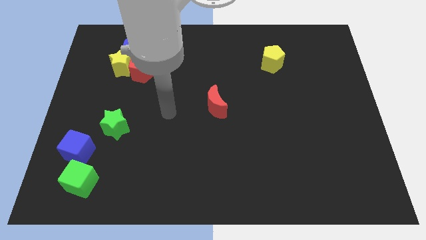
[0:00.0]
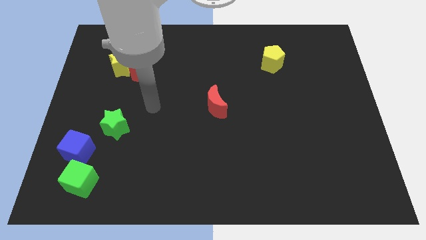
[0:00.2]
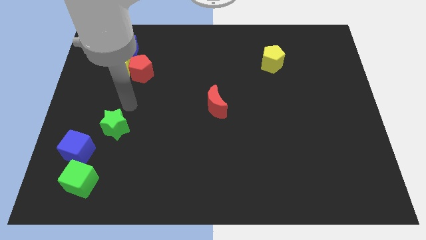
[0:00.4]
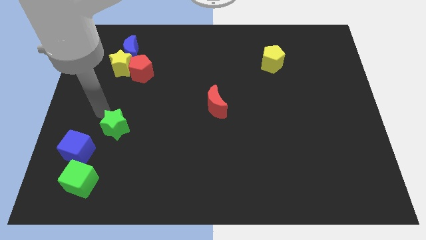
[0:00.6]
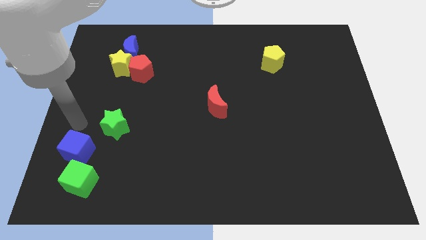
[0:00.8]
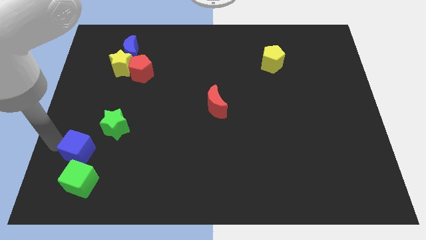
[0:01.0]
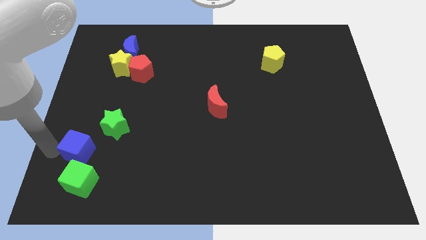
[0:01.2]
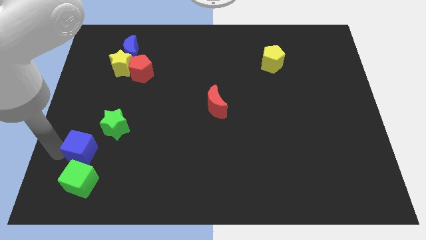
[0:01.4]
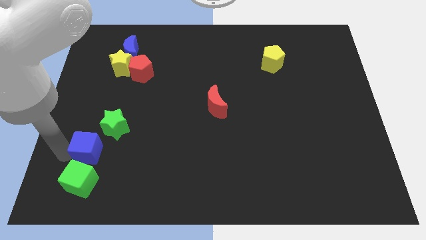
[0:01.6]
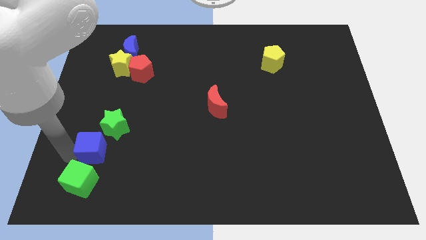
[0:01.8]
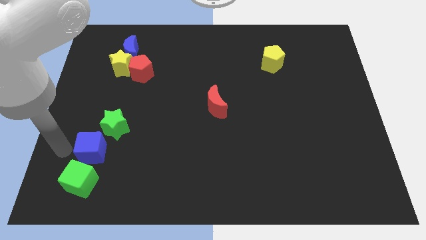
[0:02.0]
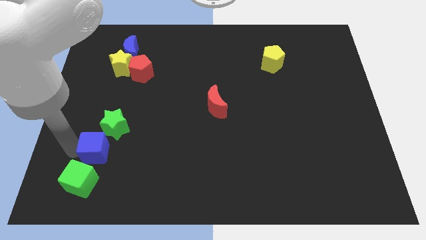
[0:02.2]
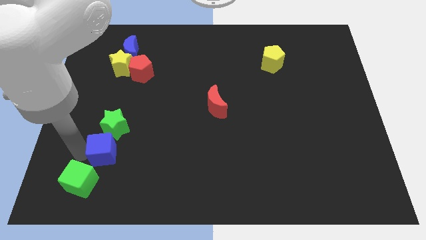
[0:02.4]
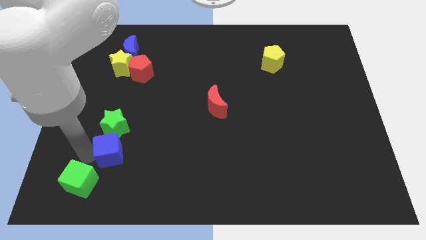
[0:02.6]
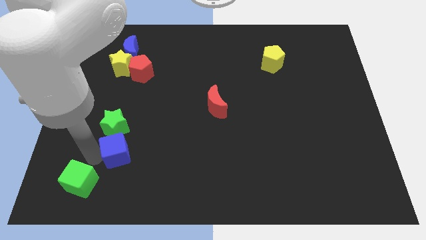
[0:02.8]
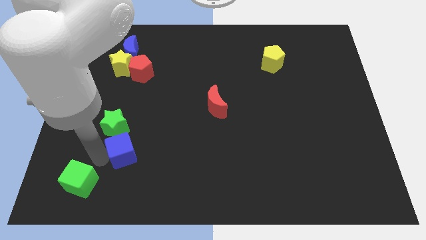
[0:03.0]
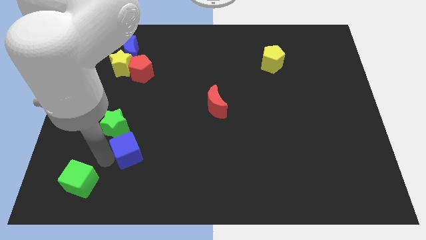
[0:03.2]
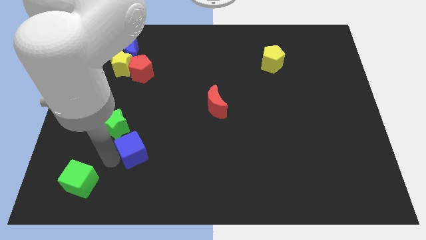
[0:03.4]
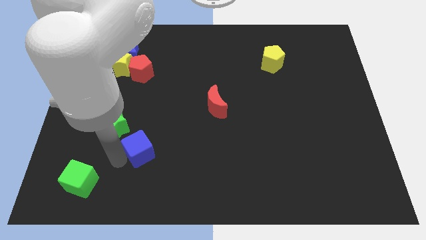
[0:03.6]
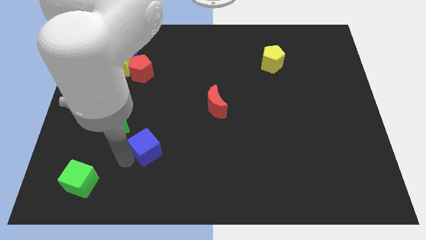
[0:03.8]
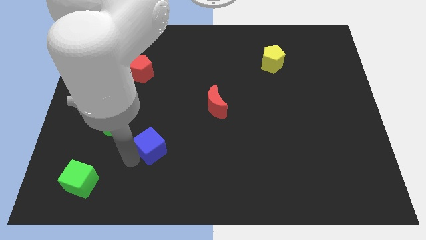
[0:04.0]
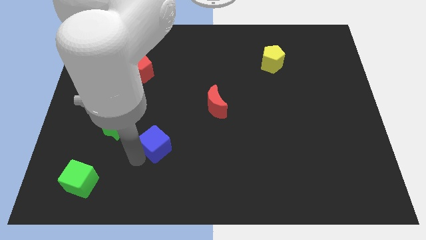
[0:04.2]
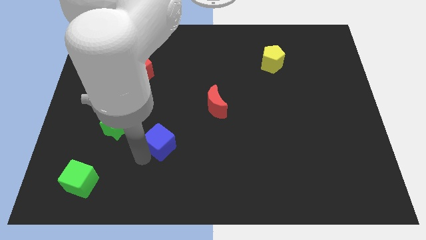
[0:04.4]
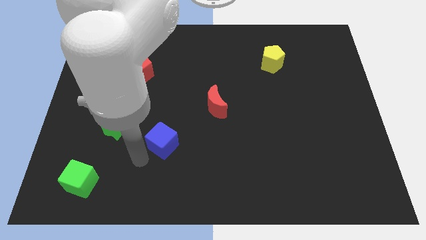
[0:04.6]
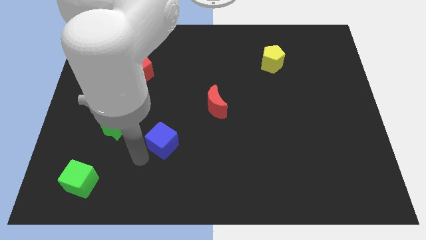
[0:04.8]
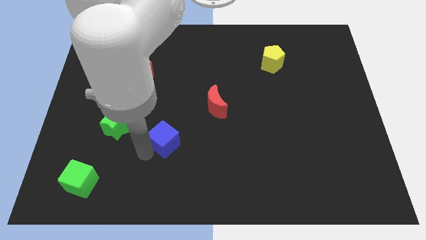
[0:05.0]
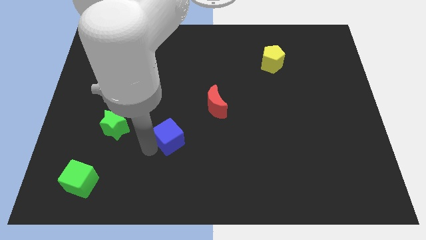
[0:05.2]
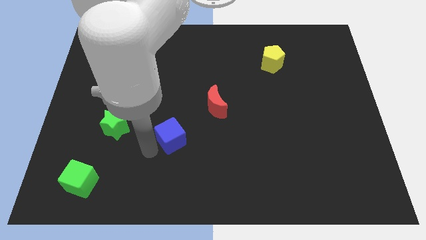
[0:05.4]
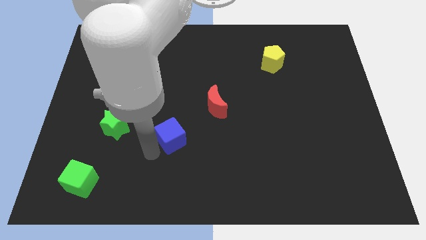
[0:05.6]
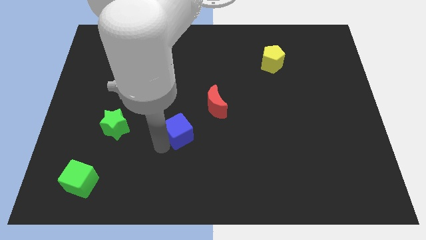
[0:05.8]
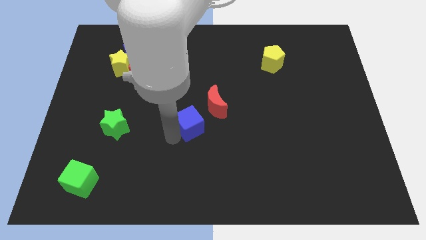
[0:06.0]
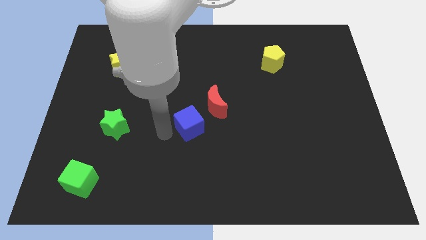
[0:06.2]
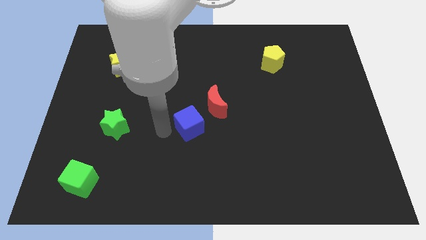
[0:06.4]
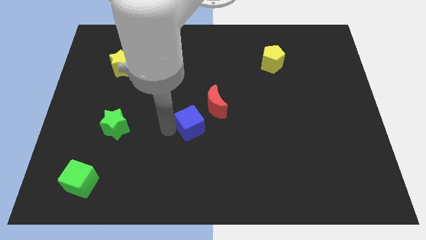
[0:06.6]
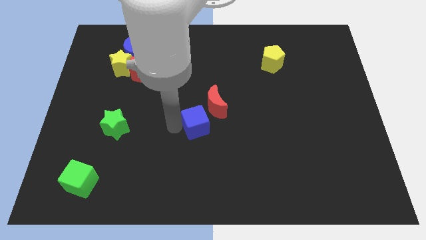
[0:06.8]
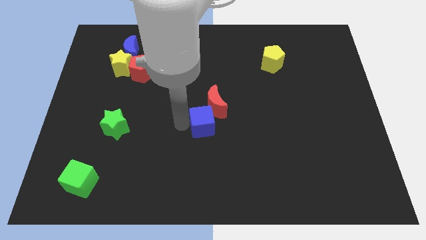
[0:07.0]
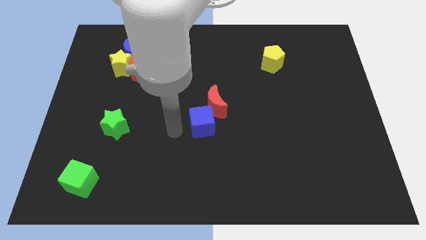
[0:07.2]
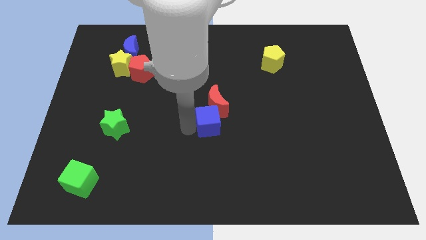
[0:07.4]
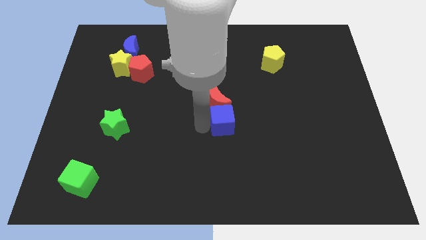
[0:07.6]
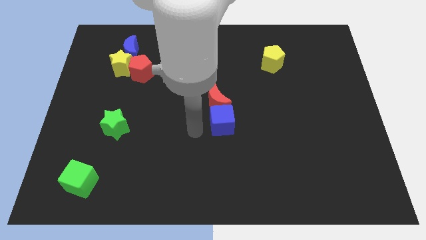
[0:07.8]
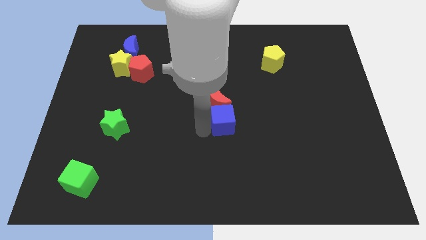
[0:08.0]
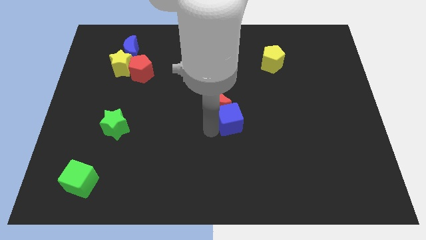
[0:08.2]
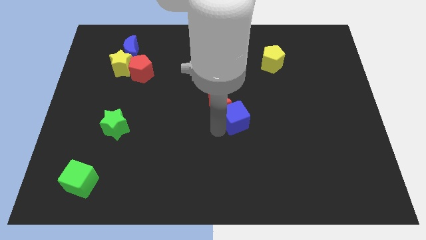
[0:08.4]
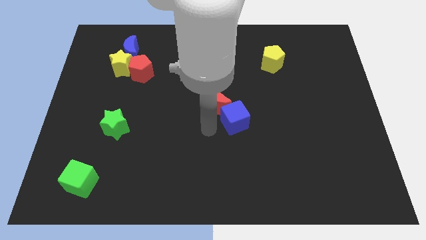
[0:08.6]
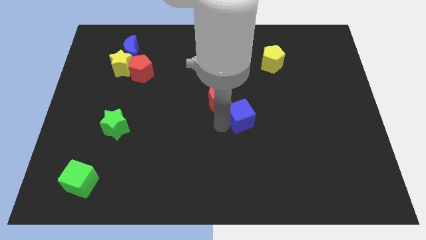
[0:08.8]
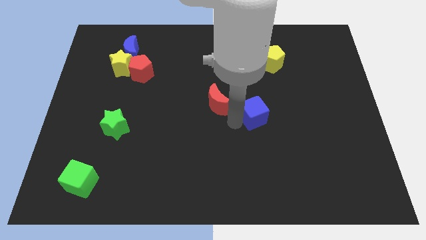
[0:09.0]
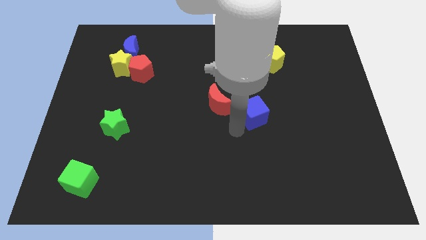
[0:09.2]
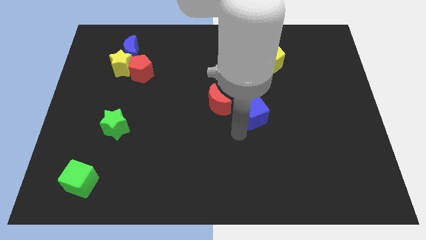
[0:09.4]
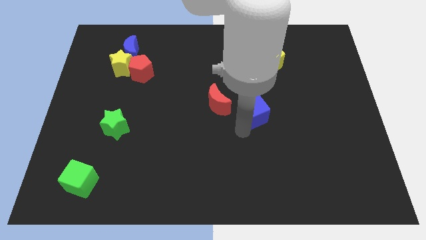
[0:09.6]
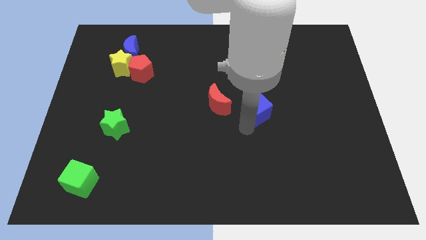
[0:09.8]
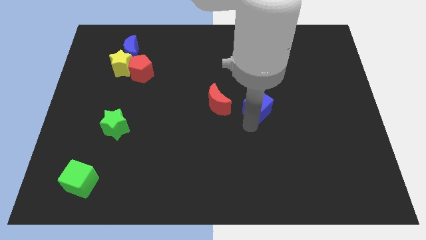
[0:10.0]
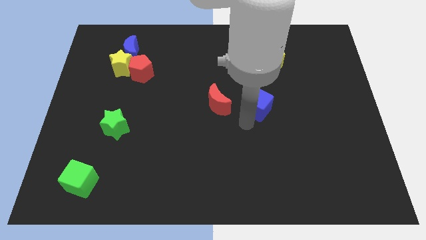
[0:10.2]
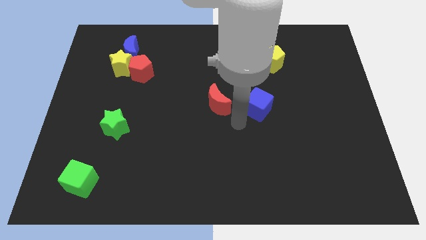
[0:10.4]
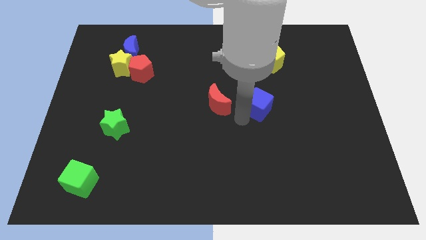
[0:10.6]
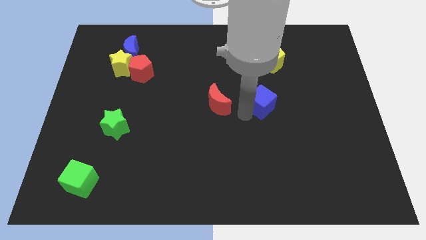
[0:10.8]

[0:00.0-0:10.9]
push the blue cube to the bottom side of the yellow pentagon

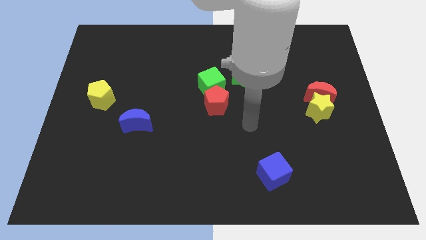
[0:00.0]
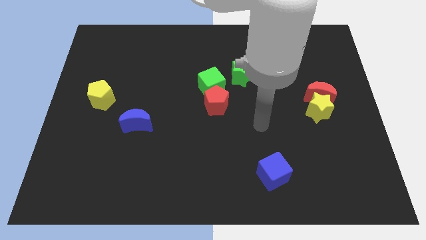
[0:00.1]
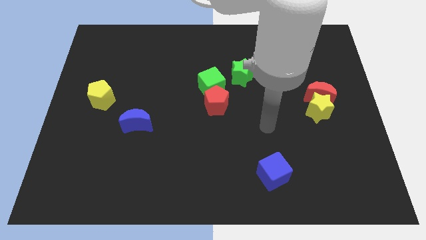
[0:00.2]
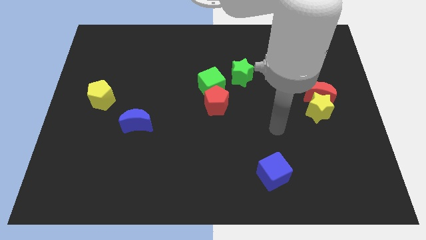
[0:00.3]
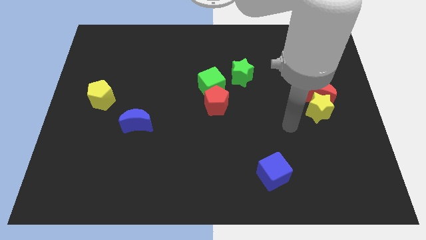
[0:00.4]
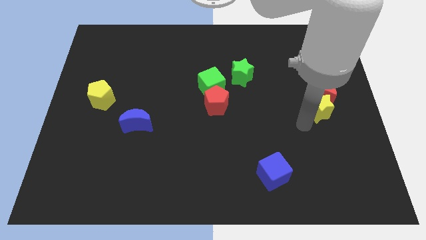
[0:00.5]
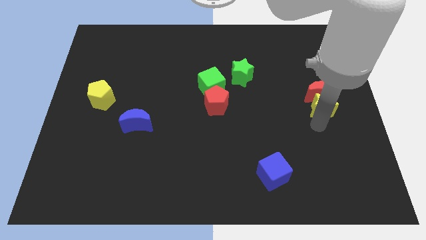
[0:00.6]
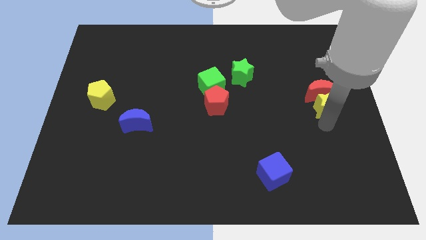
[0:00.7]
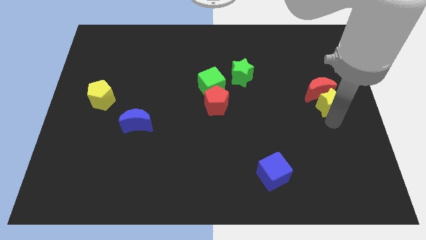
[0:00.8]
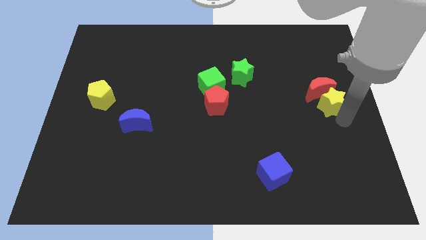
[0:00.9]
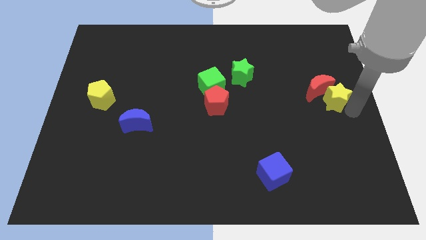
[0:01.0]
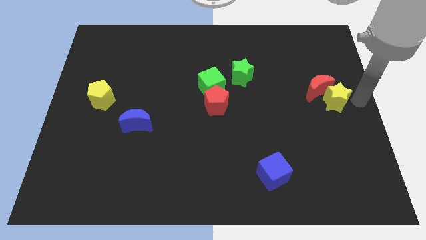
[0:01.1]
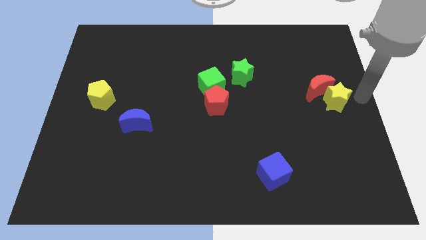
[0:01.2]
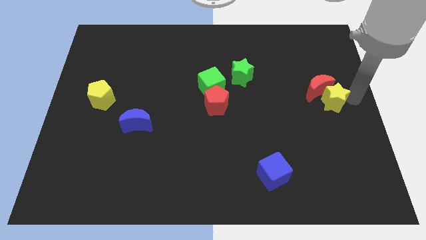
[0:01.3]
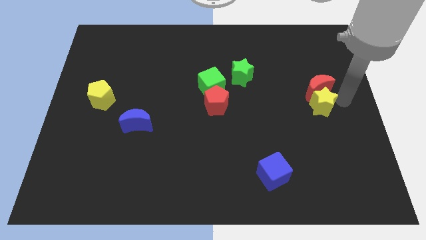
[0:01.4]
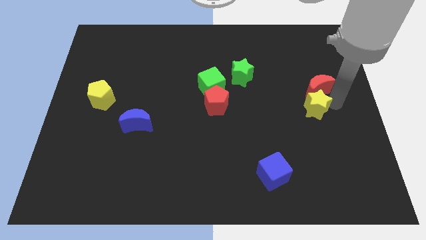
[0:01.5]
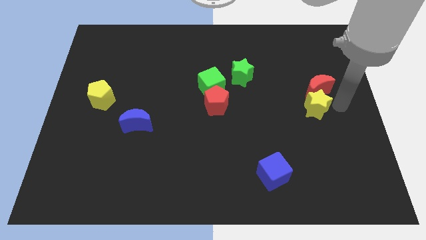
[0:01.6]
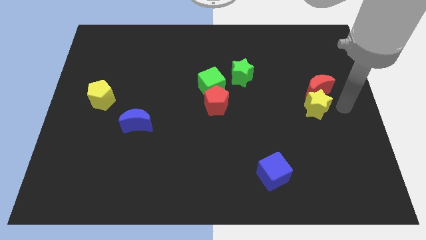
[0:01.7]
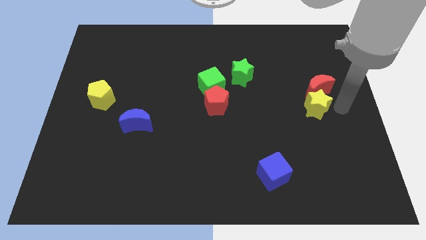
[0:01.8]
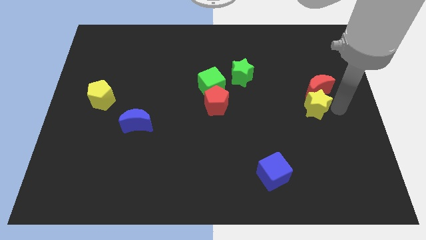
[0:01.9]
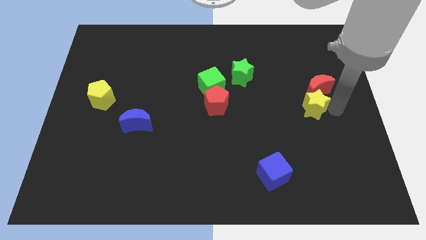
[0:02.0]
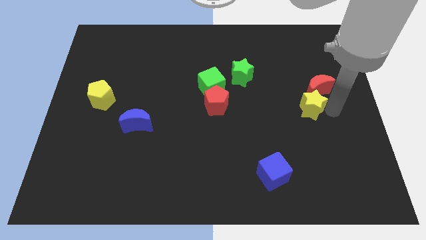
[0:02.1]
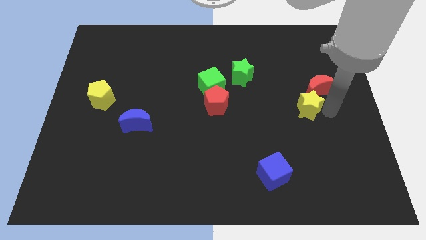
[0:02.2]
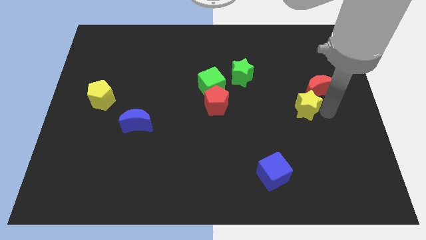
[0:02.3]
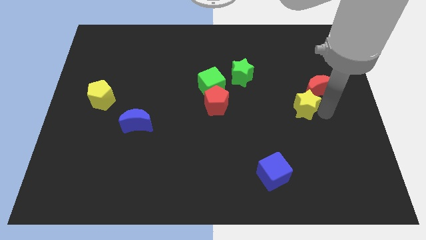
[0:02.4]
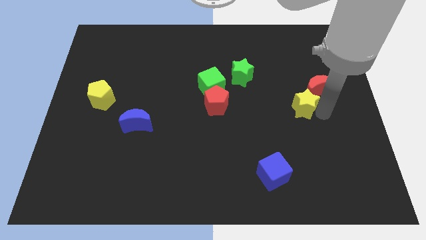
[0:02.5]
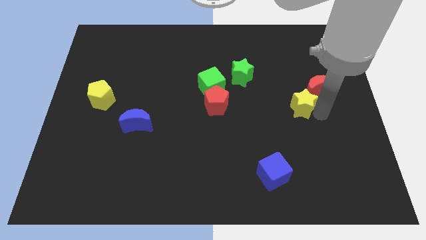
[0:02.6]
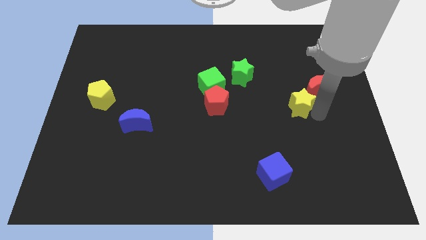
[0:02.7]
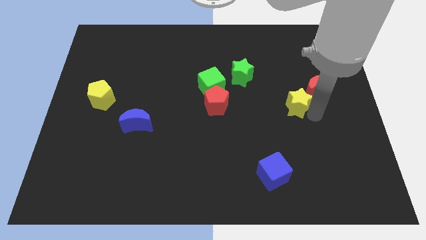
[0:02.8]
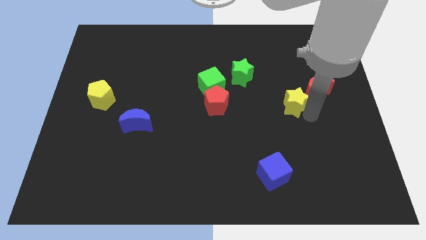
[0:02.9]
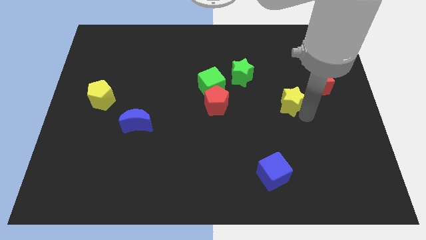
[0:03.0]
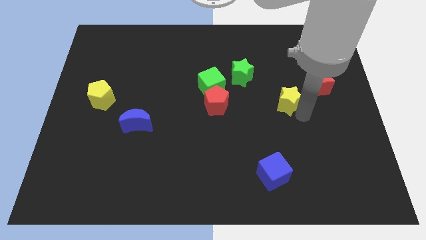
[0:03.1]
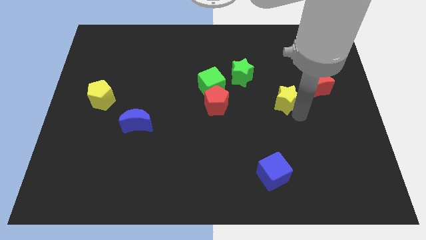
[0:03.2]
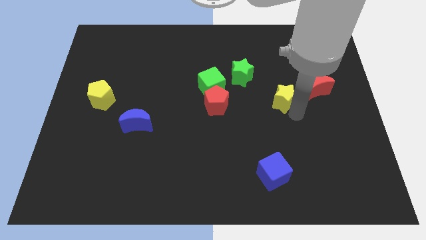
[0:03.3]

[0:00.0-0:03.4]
put the yellow star just right of the red pentagon
